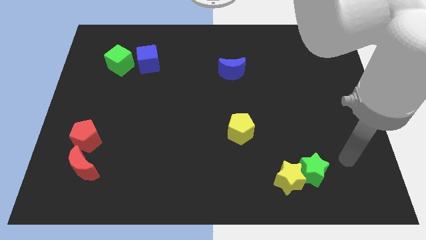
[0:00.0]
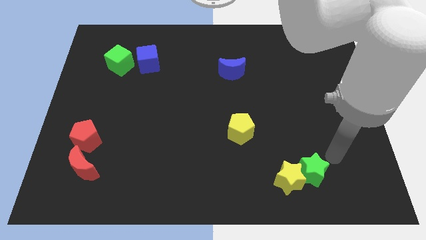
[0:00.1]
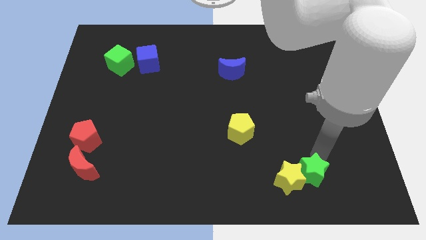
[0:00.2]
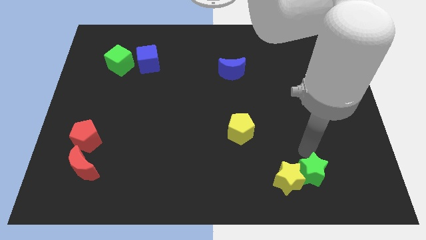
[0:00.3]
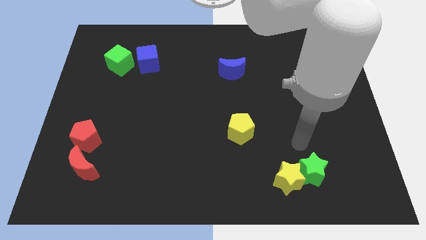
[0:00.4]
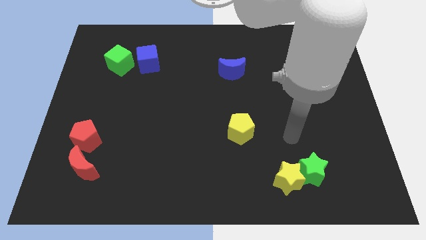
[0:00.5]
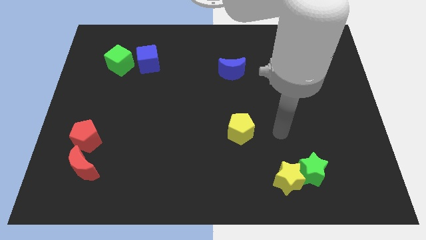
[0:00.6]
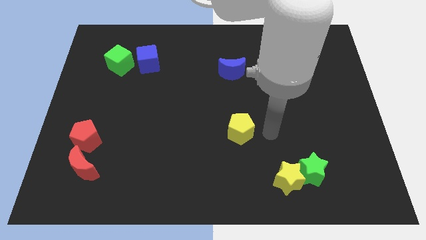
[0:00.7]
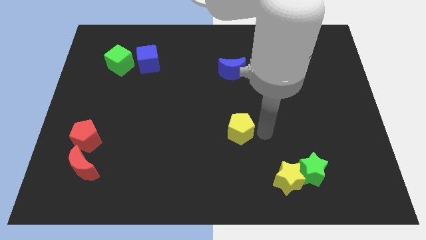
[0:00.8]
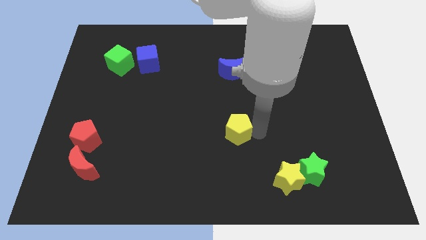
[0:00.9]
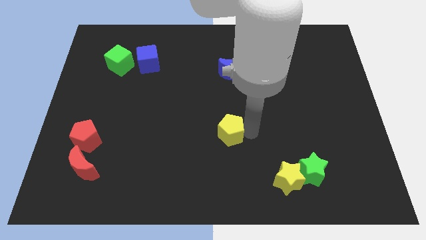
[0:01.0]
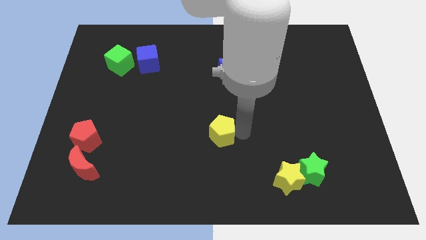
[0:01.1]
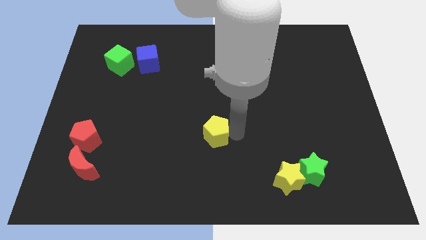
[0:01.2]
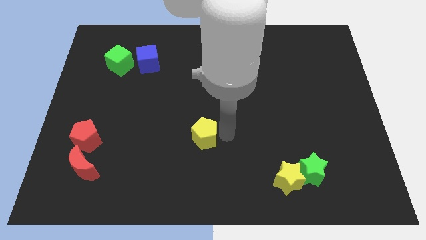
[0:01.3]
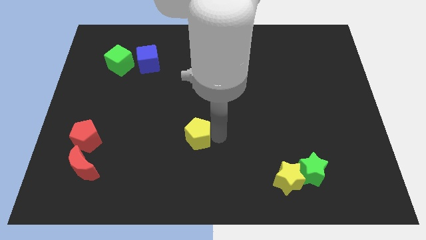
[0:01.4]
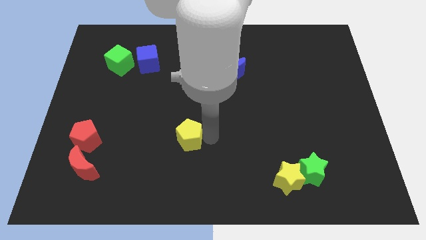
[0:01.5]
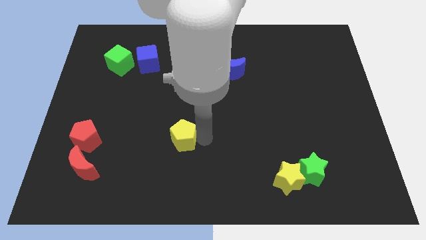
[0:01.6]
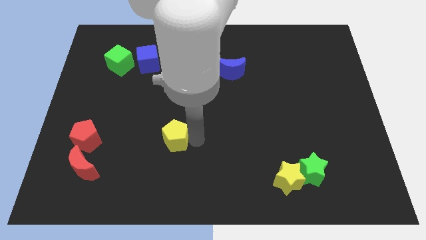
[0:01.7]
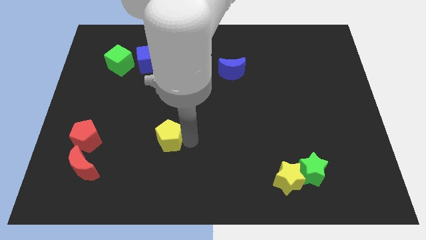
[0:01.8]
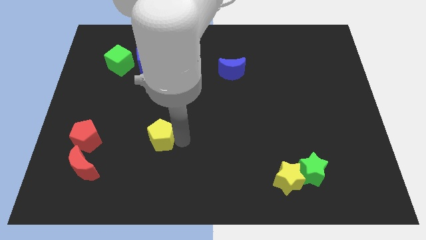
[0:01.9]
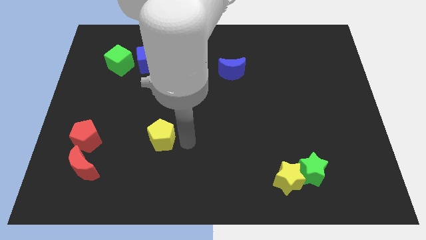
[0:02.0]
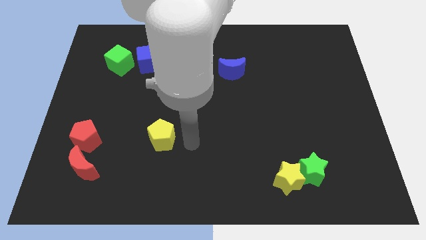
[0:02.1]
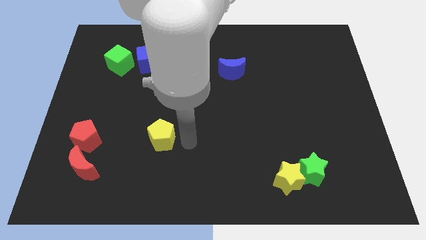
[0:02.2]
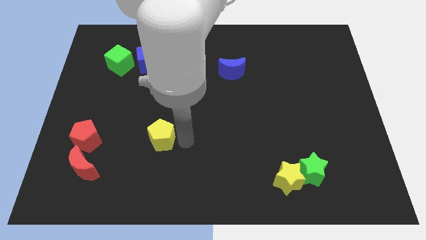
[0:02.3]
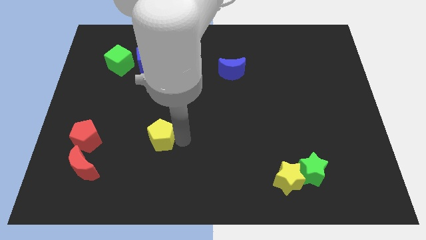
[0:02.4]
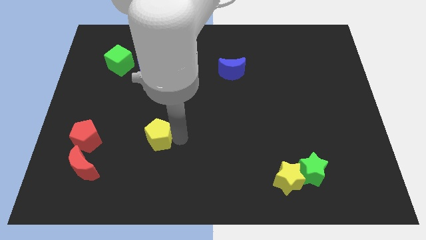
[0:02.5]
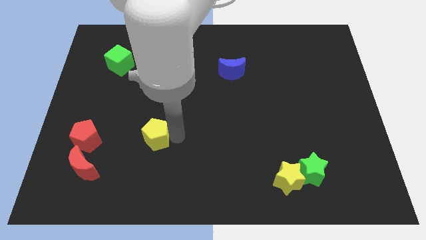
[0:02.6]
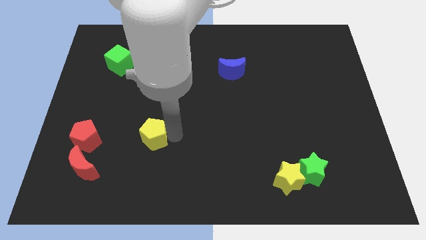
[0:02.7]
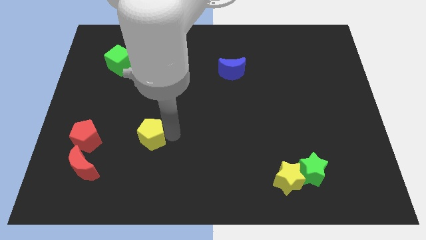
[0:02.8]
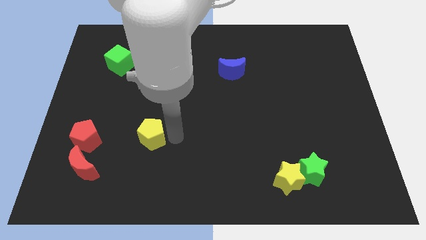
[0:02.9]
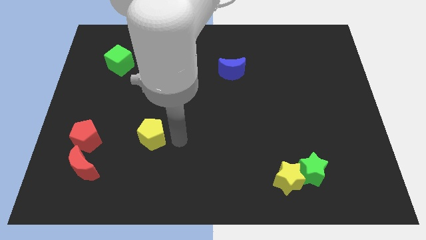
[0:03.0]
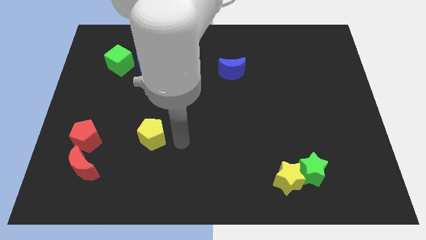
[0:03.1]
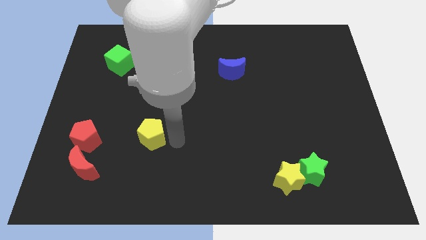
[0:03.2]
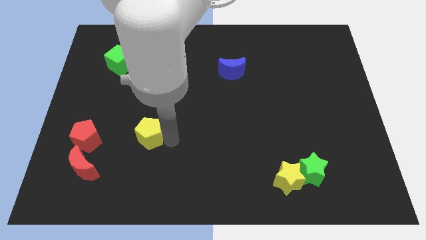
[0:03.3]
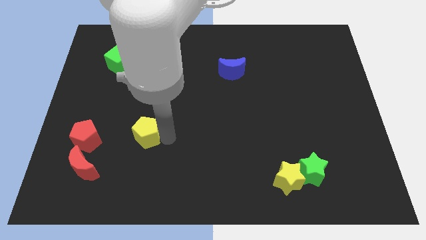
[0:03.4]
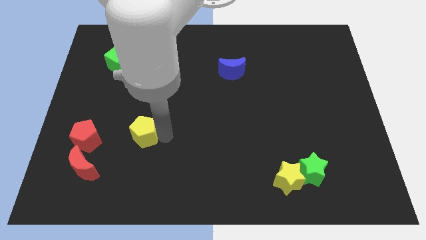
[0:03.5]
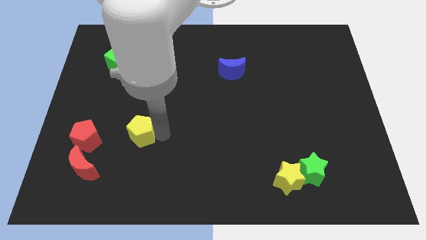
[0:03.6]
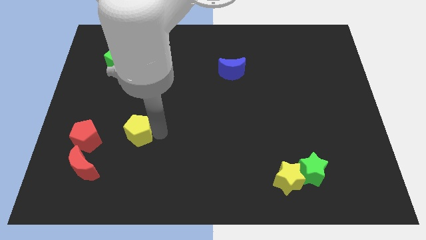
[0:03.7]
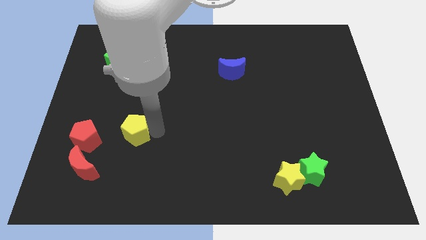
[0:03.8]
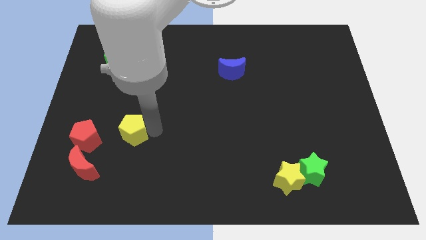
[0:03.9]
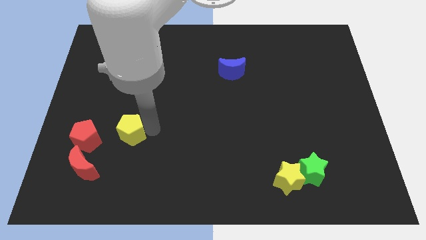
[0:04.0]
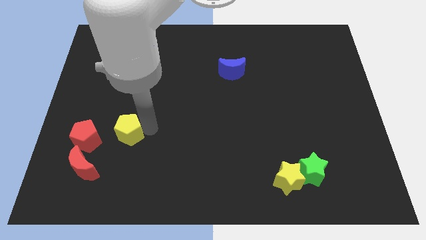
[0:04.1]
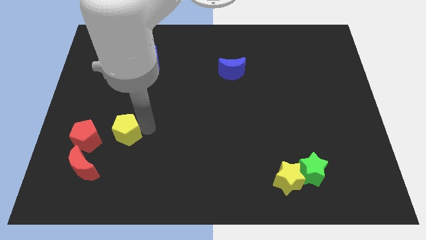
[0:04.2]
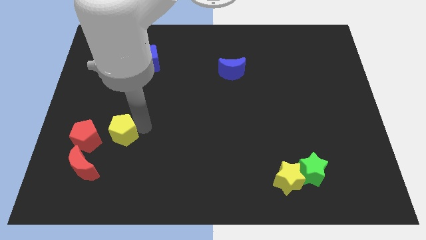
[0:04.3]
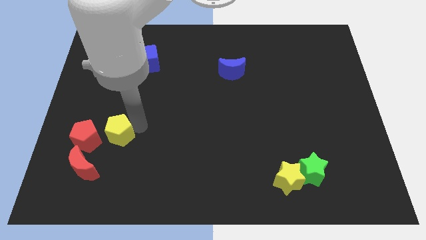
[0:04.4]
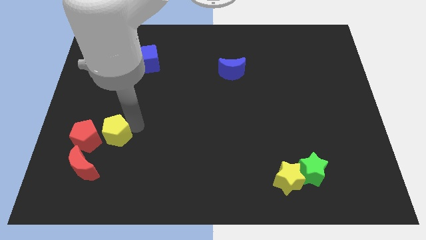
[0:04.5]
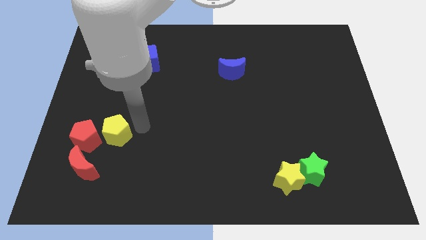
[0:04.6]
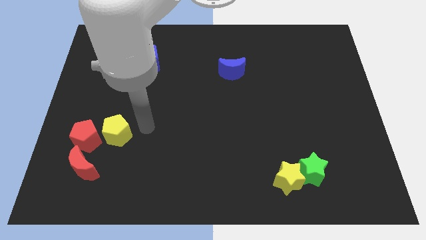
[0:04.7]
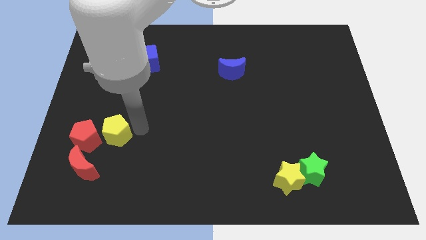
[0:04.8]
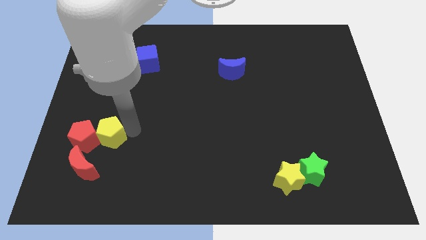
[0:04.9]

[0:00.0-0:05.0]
push the yellow pentagon to the red pentagon

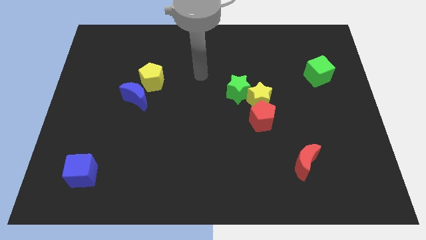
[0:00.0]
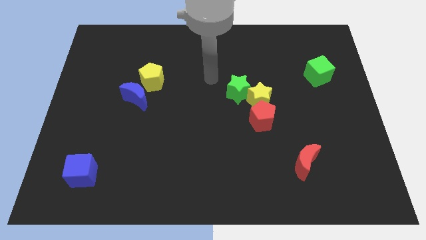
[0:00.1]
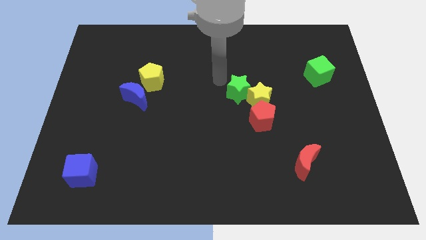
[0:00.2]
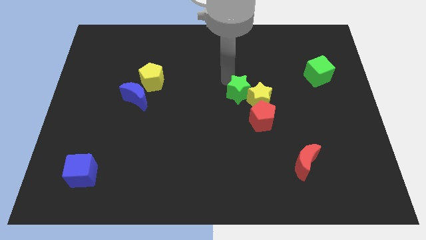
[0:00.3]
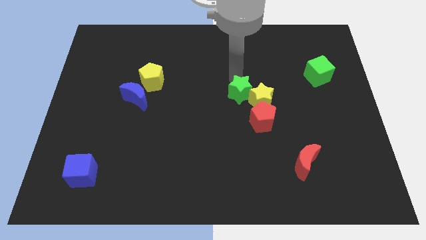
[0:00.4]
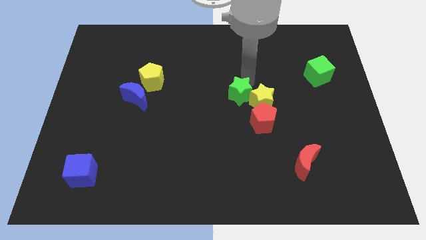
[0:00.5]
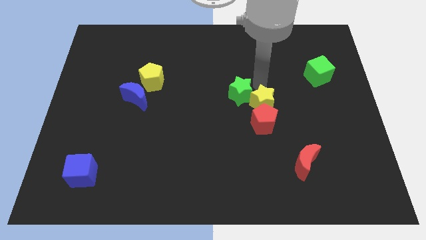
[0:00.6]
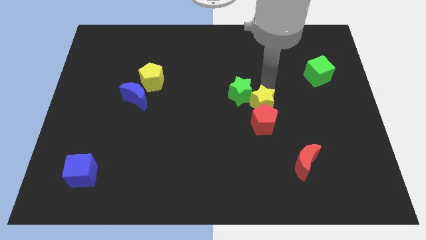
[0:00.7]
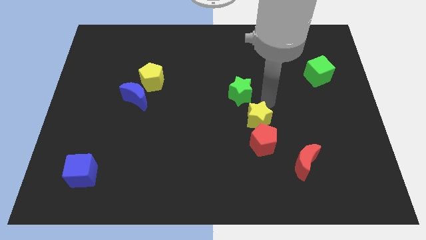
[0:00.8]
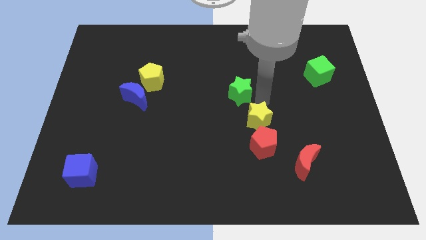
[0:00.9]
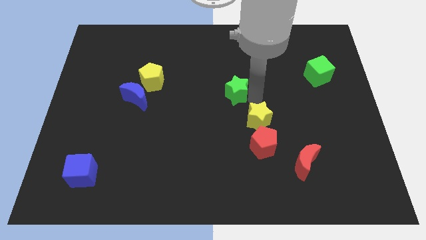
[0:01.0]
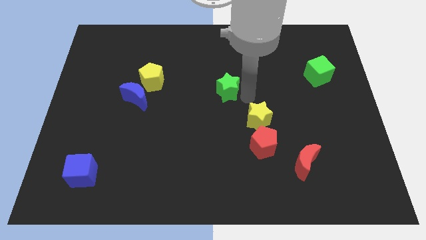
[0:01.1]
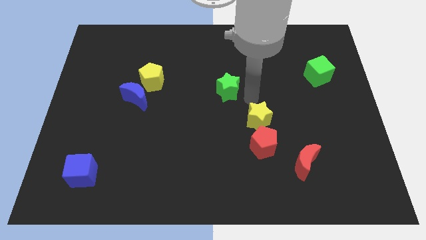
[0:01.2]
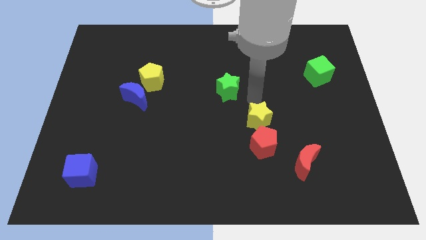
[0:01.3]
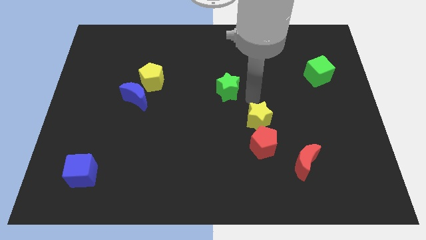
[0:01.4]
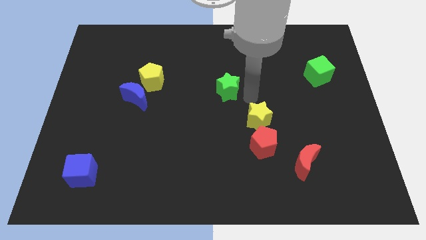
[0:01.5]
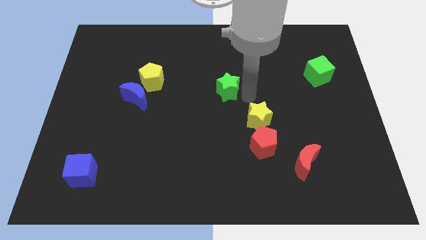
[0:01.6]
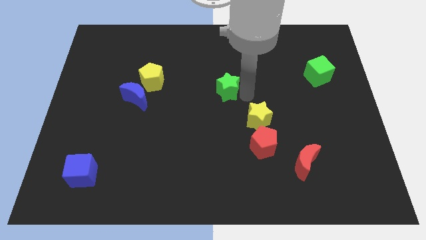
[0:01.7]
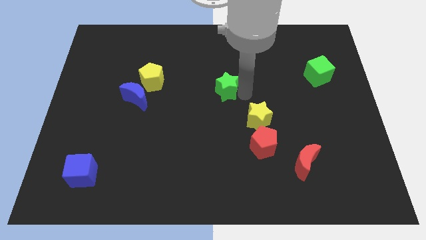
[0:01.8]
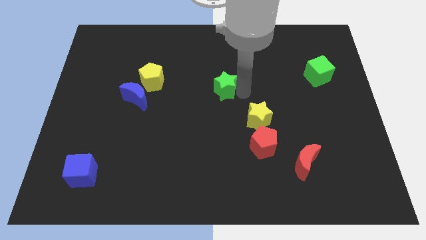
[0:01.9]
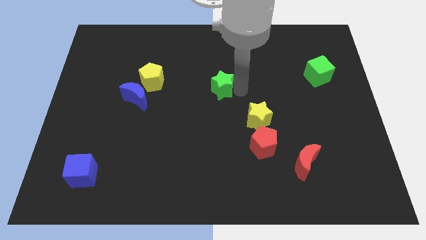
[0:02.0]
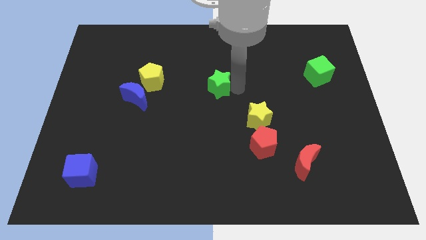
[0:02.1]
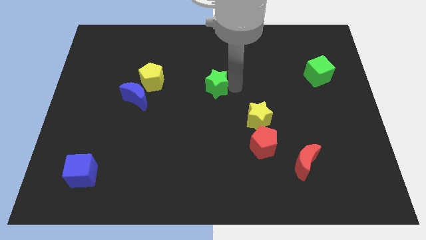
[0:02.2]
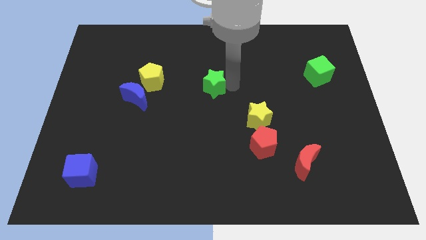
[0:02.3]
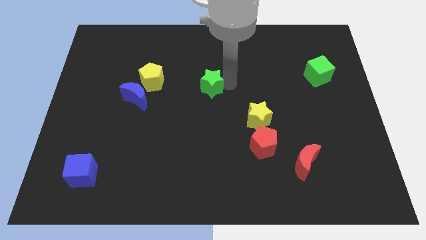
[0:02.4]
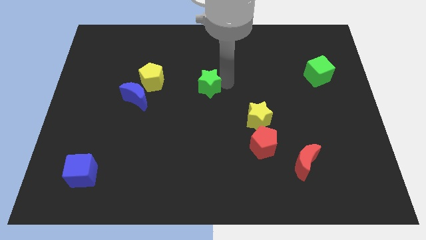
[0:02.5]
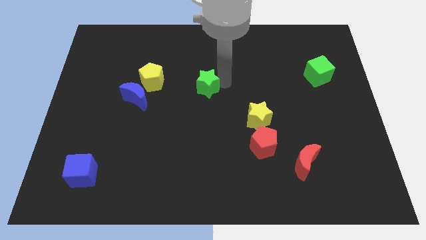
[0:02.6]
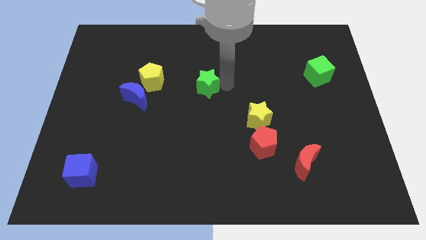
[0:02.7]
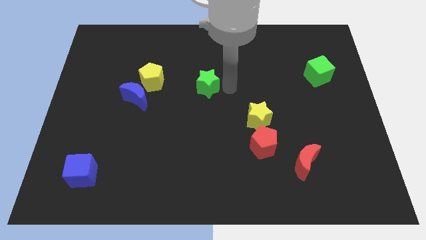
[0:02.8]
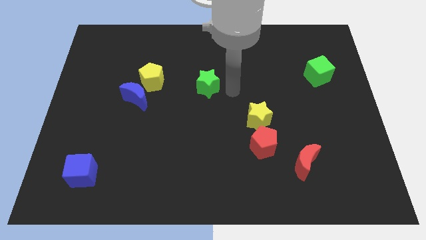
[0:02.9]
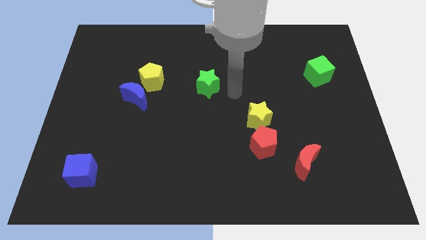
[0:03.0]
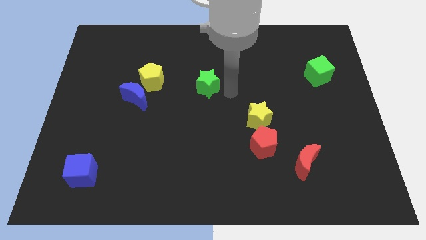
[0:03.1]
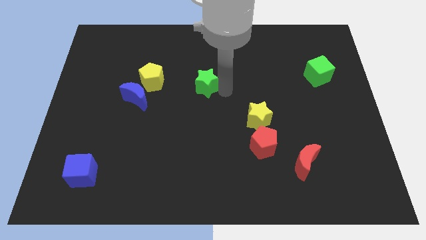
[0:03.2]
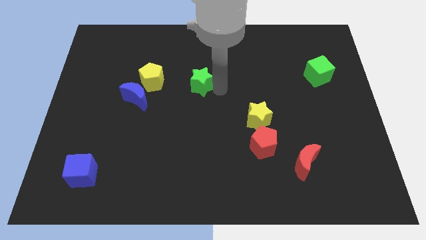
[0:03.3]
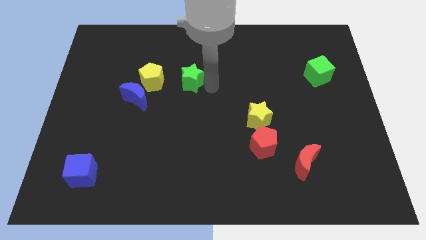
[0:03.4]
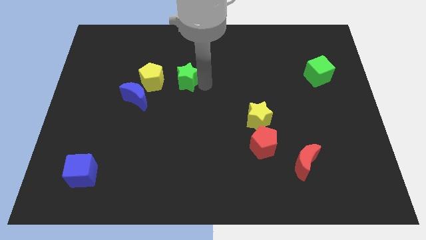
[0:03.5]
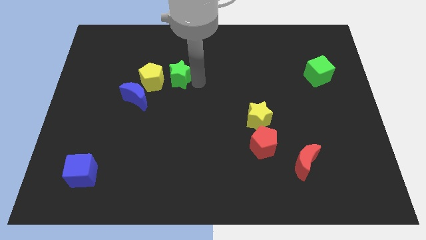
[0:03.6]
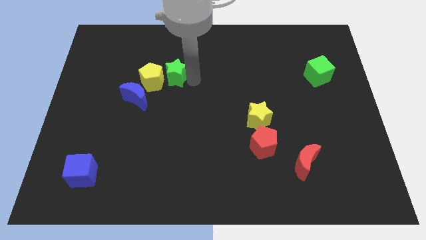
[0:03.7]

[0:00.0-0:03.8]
move the green star next to the yellow pentagon
